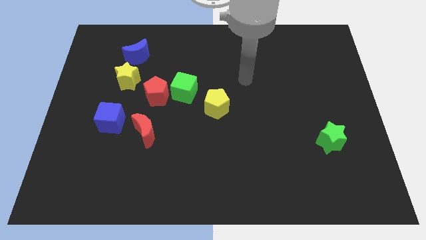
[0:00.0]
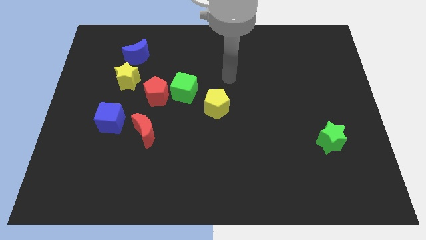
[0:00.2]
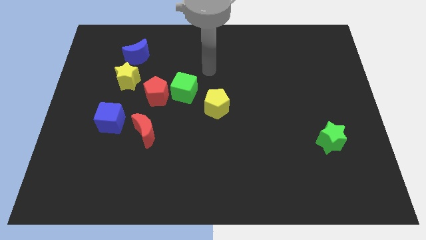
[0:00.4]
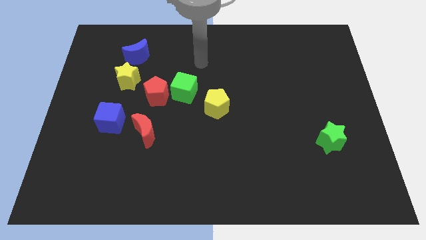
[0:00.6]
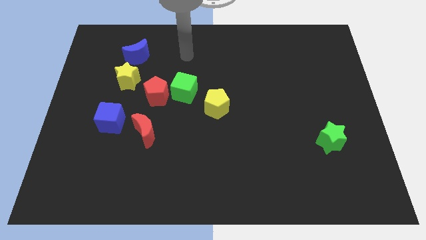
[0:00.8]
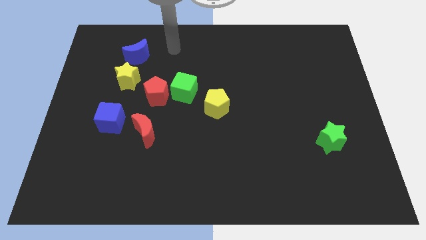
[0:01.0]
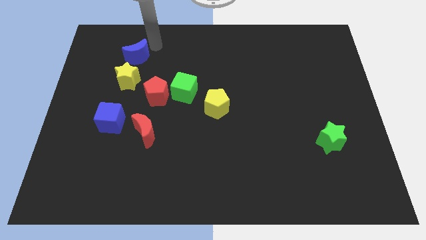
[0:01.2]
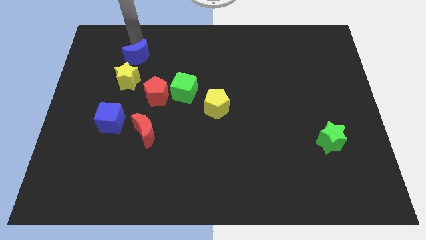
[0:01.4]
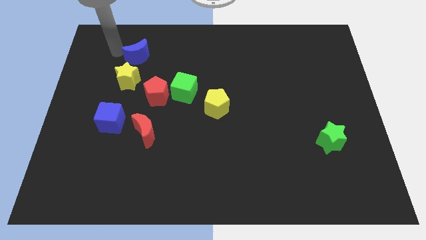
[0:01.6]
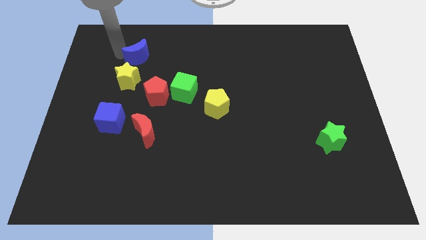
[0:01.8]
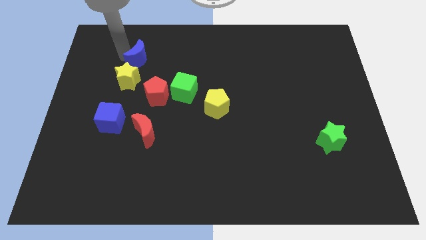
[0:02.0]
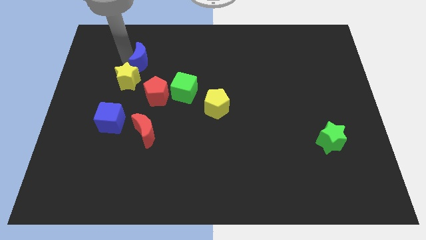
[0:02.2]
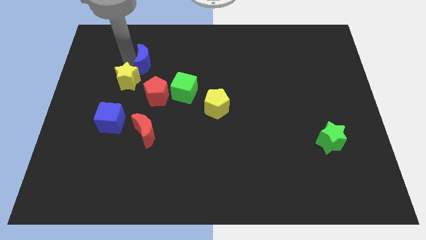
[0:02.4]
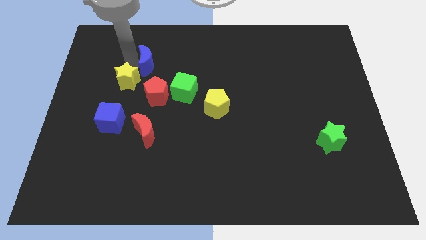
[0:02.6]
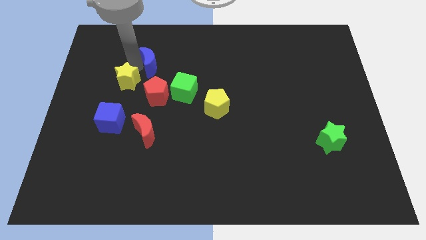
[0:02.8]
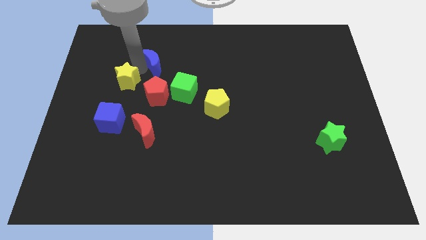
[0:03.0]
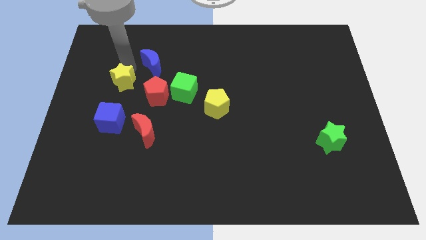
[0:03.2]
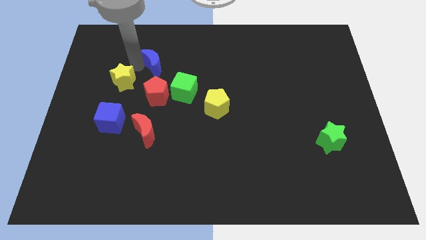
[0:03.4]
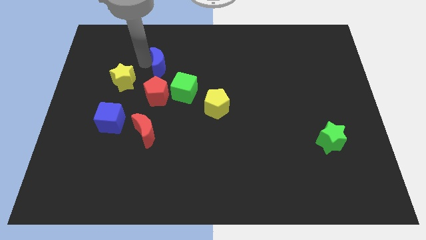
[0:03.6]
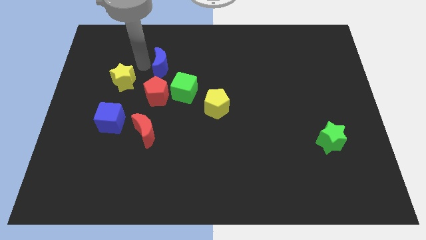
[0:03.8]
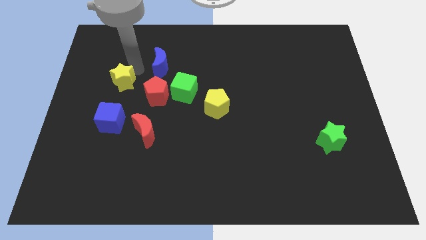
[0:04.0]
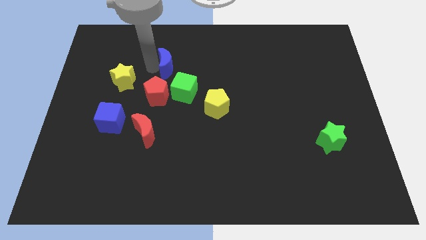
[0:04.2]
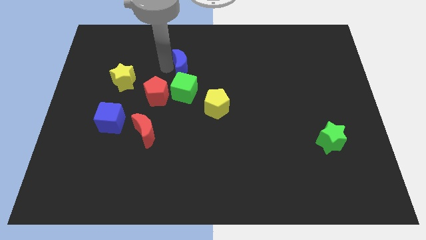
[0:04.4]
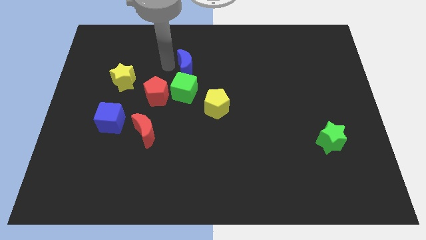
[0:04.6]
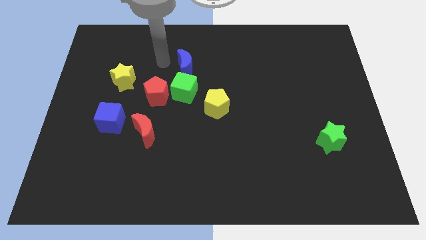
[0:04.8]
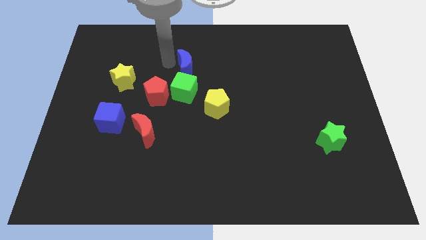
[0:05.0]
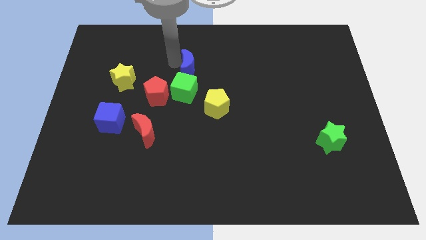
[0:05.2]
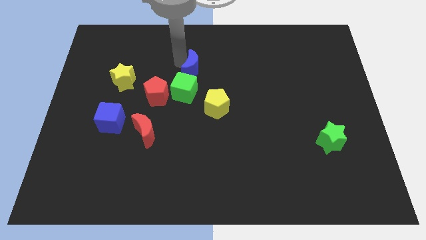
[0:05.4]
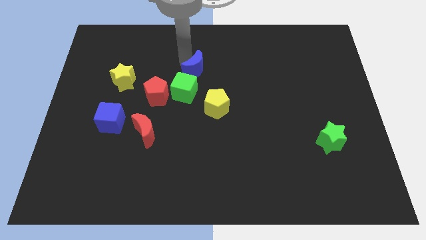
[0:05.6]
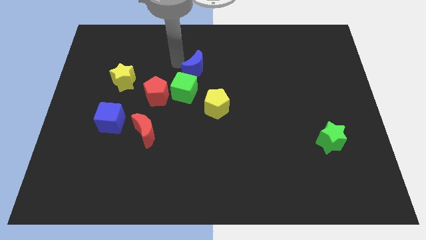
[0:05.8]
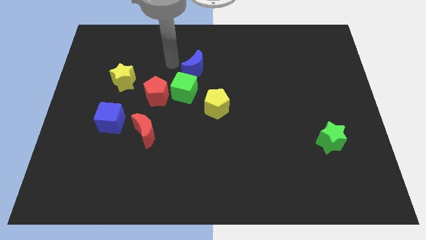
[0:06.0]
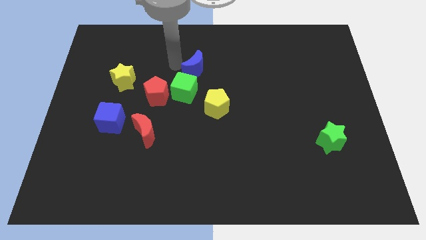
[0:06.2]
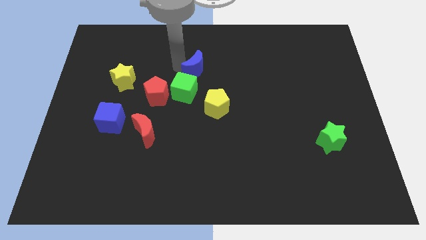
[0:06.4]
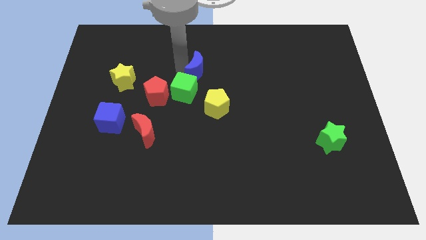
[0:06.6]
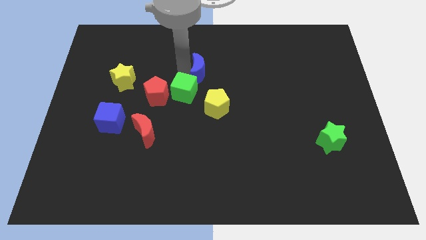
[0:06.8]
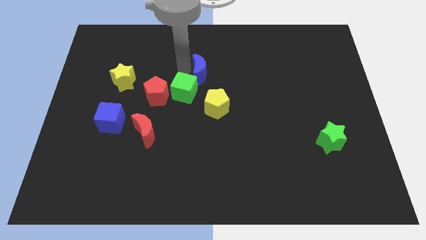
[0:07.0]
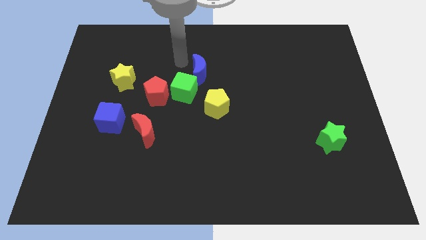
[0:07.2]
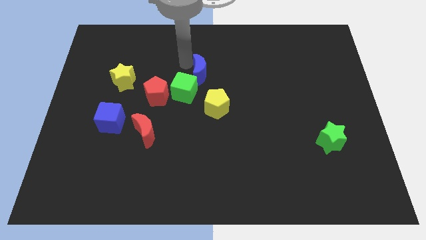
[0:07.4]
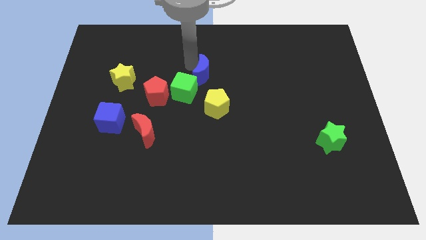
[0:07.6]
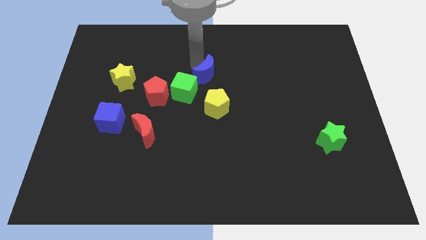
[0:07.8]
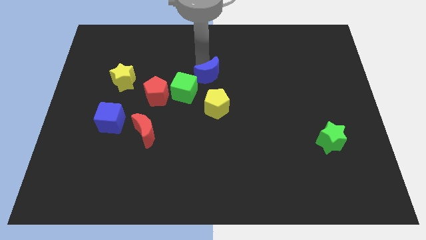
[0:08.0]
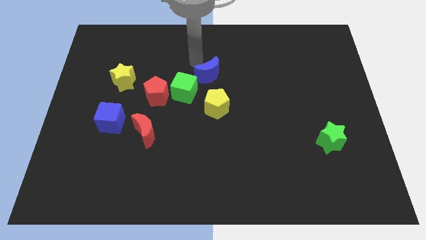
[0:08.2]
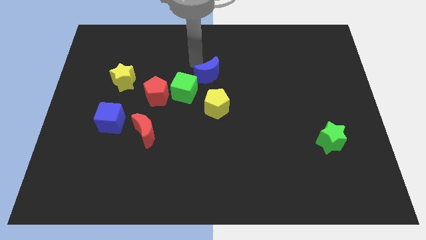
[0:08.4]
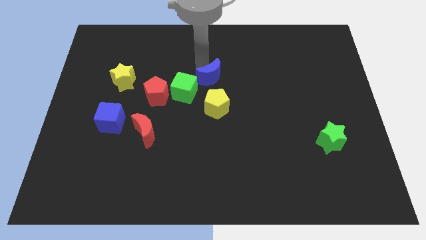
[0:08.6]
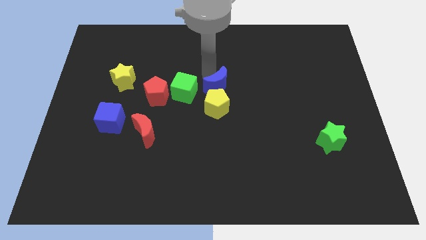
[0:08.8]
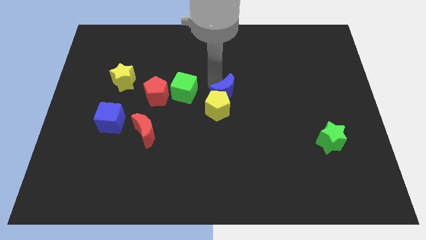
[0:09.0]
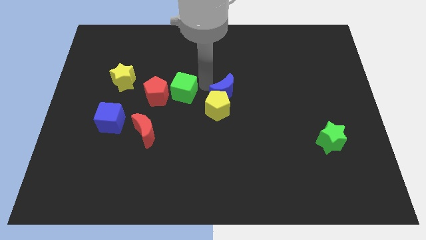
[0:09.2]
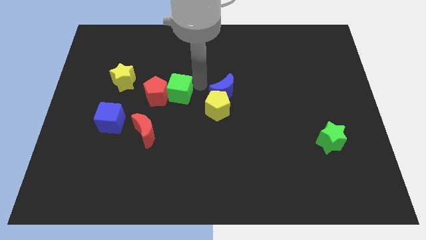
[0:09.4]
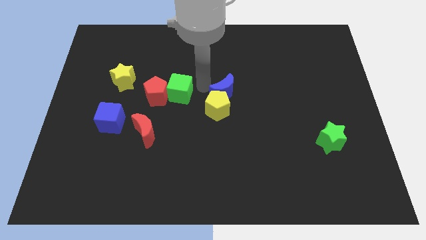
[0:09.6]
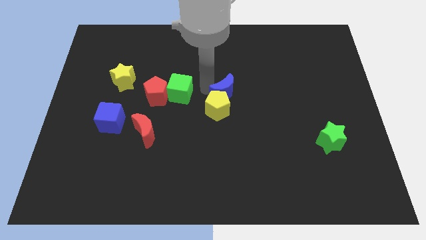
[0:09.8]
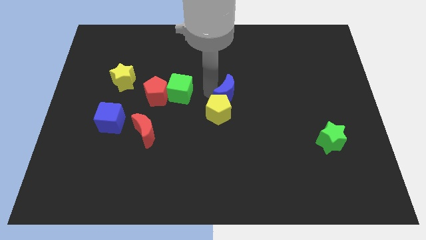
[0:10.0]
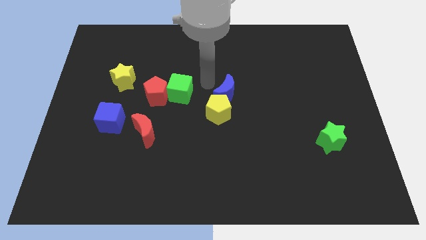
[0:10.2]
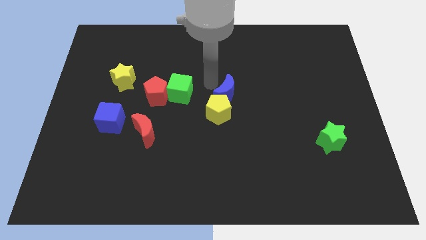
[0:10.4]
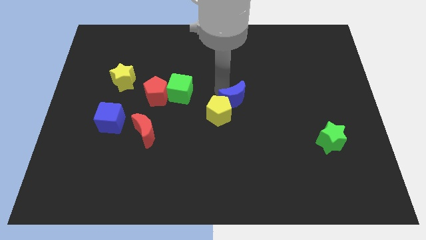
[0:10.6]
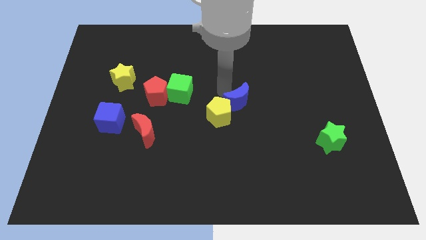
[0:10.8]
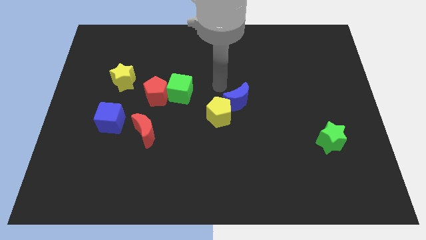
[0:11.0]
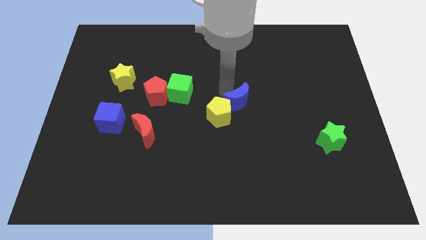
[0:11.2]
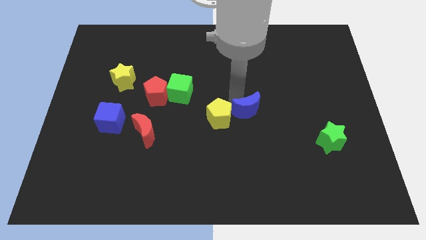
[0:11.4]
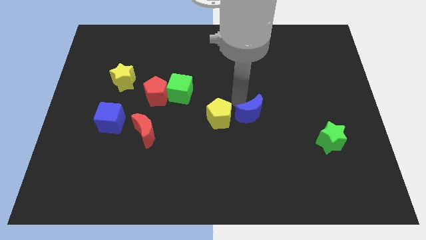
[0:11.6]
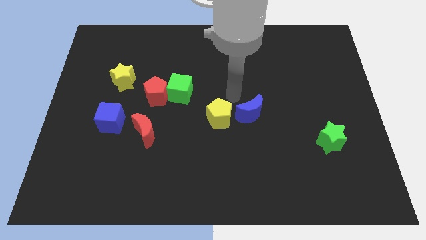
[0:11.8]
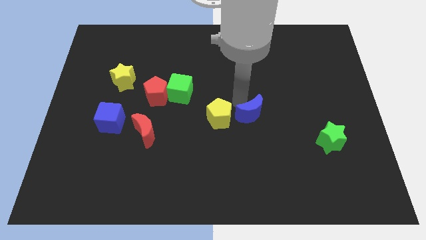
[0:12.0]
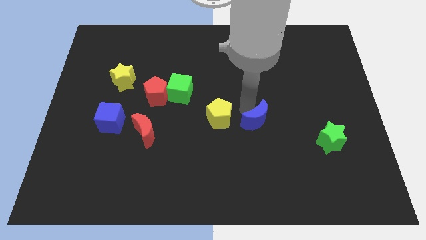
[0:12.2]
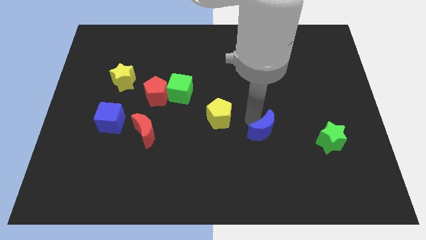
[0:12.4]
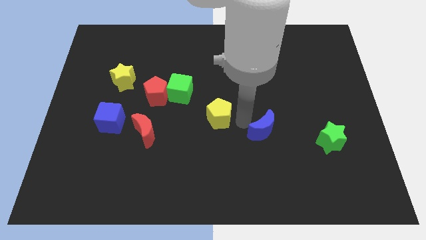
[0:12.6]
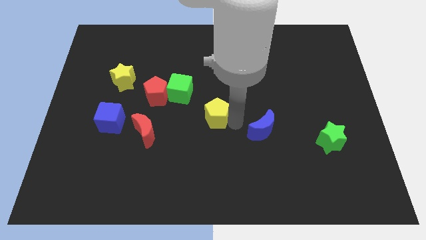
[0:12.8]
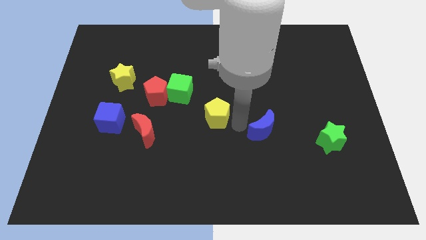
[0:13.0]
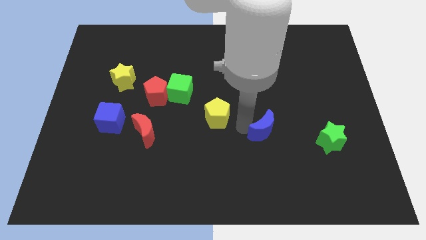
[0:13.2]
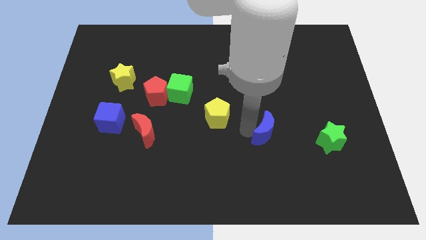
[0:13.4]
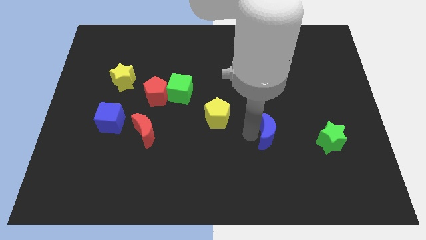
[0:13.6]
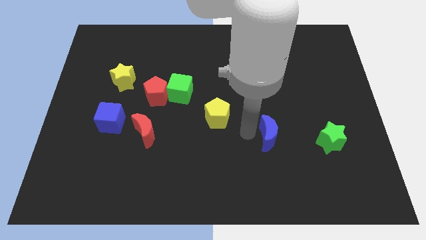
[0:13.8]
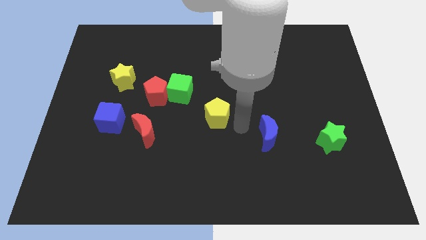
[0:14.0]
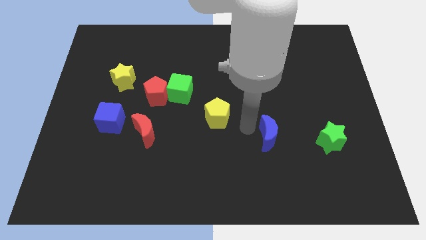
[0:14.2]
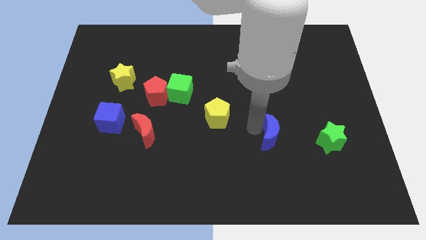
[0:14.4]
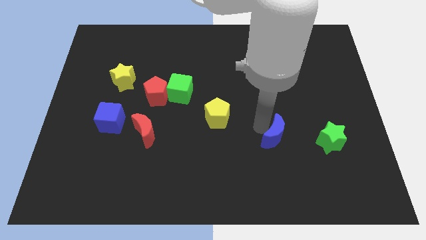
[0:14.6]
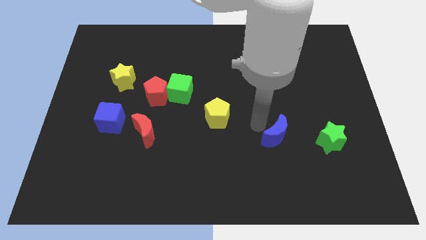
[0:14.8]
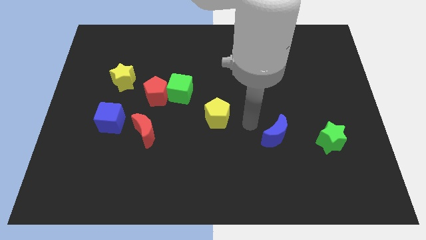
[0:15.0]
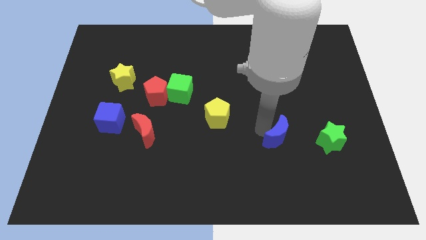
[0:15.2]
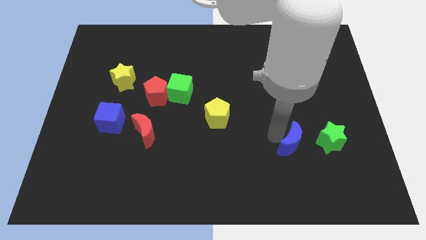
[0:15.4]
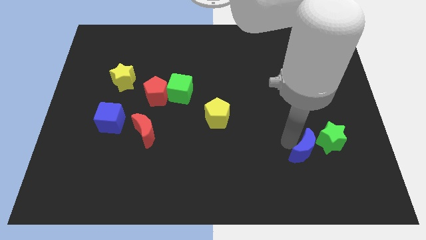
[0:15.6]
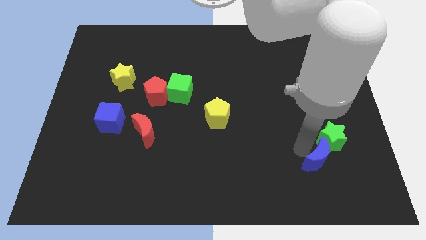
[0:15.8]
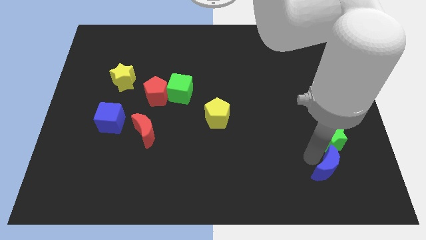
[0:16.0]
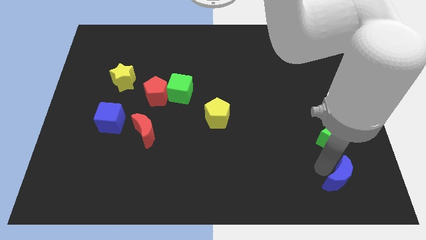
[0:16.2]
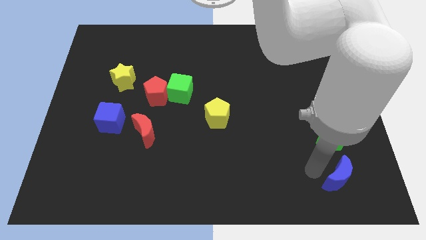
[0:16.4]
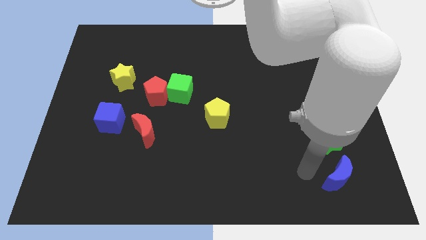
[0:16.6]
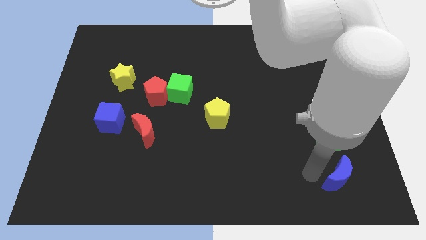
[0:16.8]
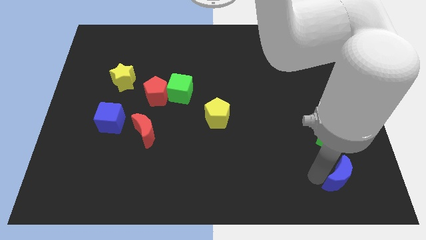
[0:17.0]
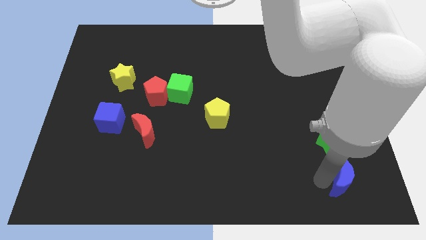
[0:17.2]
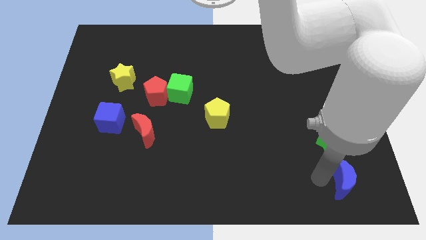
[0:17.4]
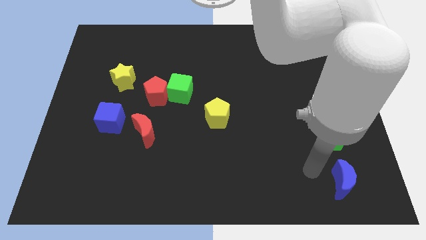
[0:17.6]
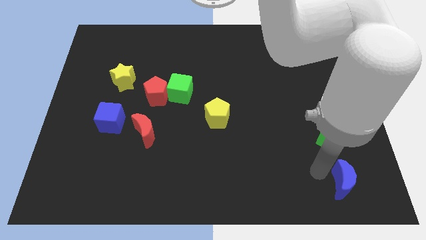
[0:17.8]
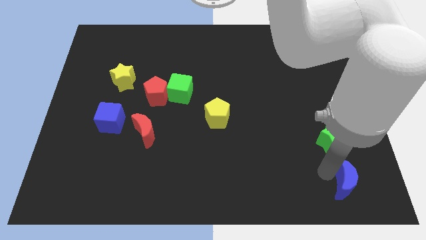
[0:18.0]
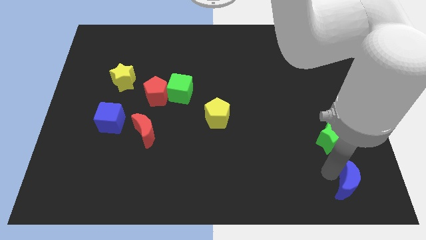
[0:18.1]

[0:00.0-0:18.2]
slide the blue moon to the bottom right
